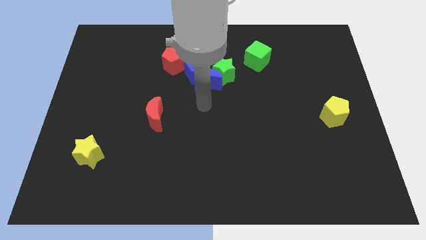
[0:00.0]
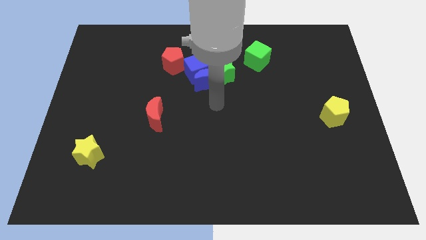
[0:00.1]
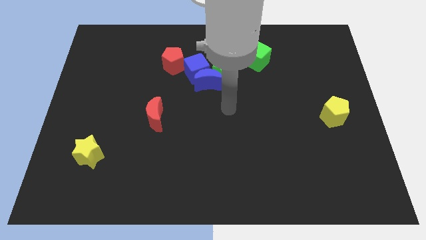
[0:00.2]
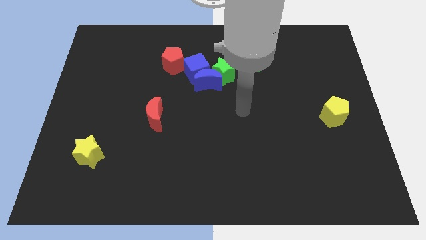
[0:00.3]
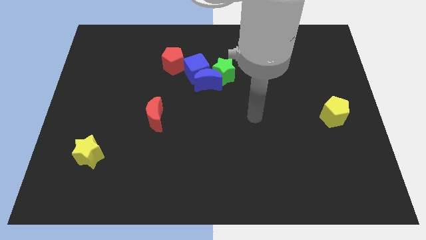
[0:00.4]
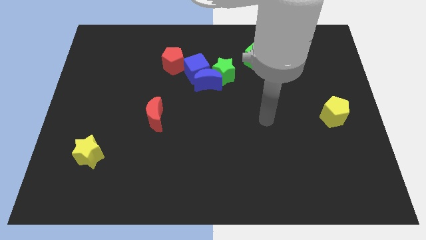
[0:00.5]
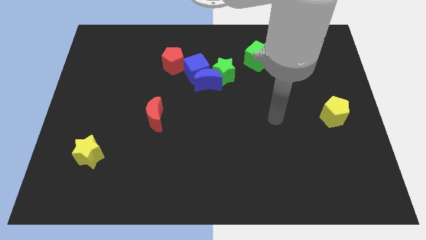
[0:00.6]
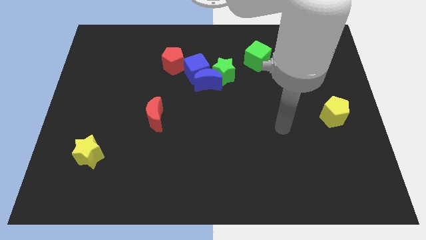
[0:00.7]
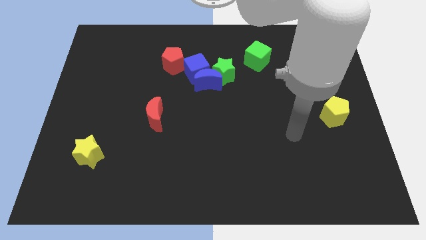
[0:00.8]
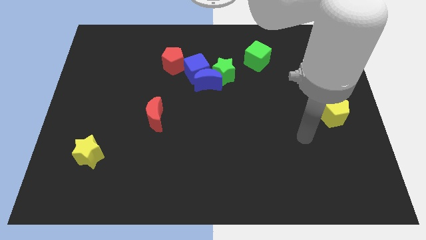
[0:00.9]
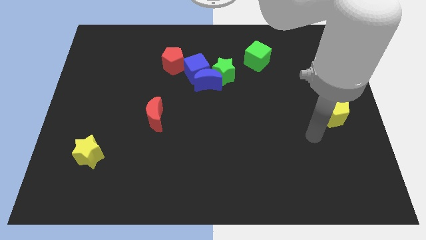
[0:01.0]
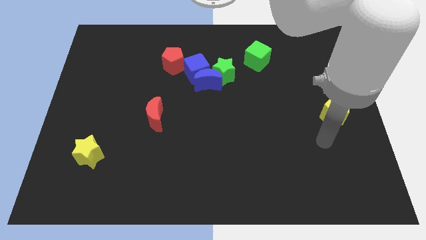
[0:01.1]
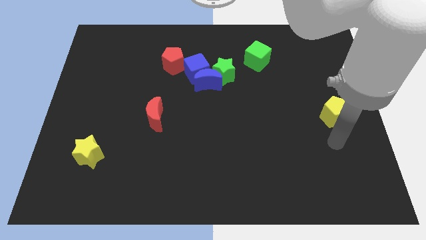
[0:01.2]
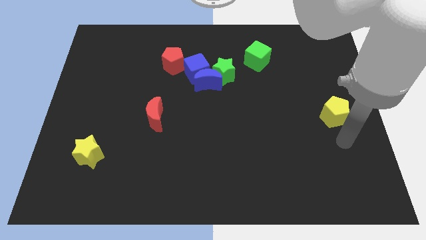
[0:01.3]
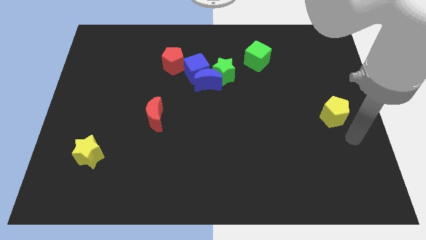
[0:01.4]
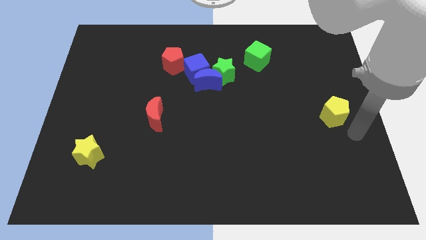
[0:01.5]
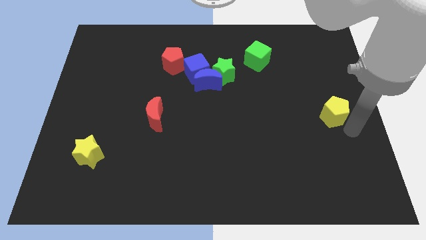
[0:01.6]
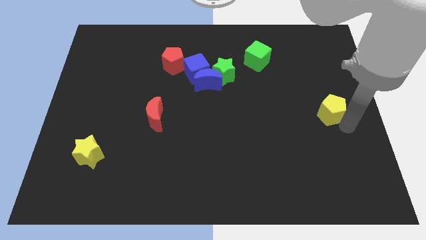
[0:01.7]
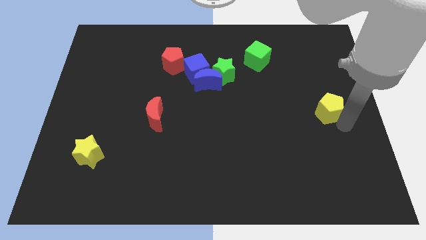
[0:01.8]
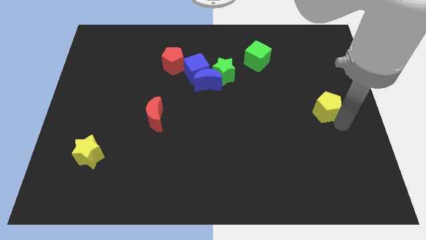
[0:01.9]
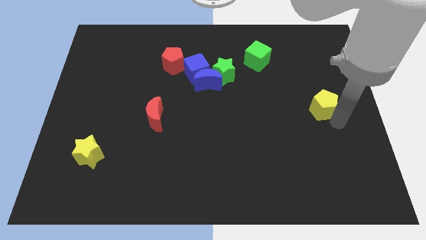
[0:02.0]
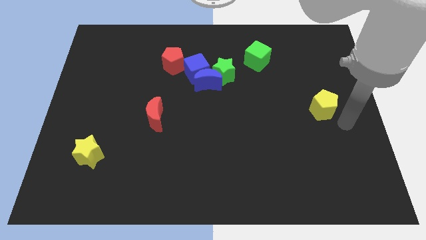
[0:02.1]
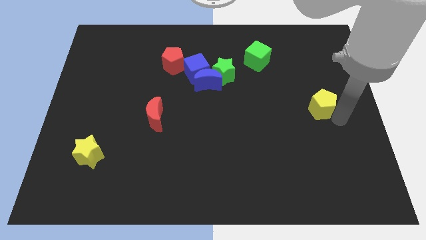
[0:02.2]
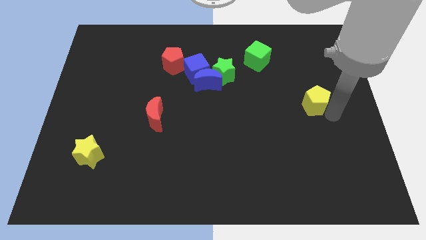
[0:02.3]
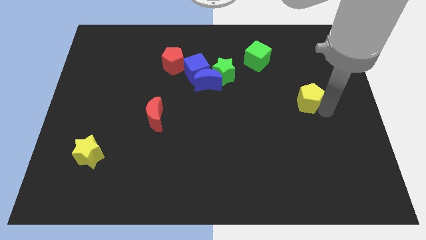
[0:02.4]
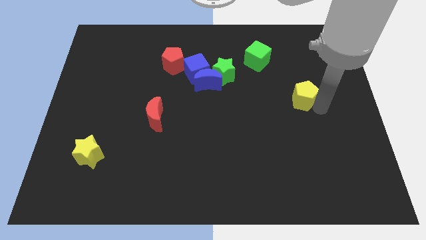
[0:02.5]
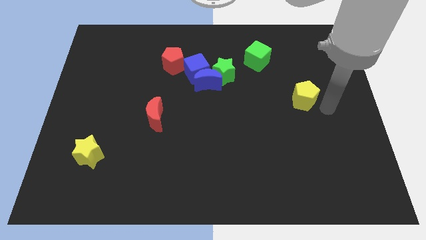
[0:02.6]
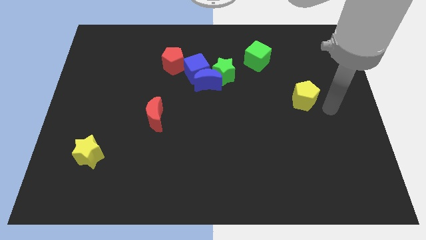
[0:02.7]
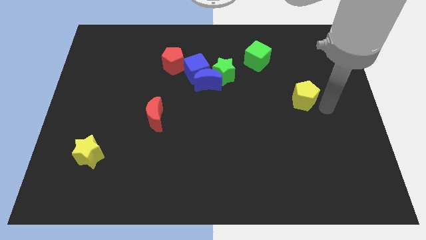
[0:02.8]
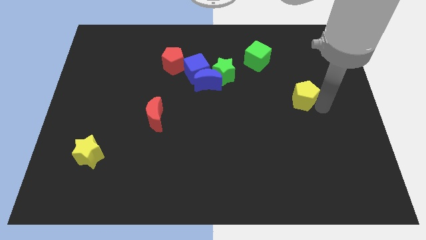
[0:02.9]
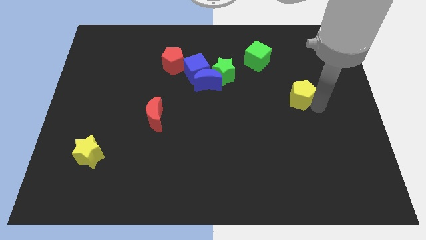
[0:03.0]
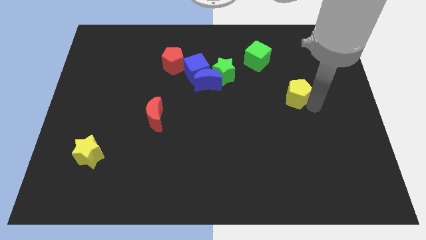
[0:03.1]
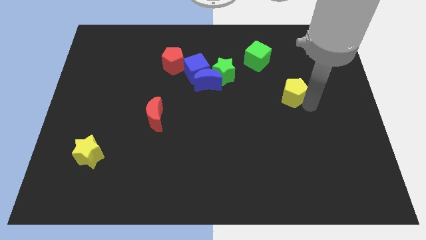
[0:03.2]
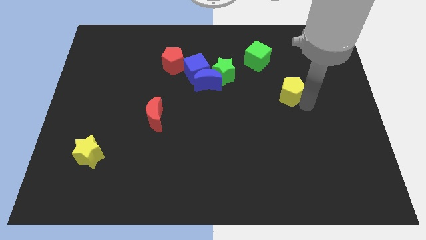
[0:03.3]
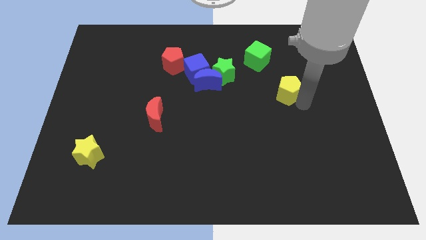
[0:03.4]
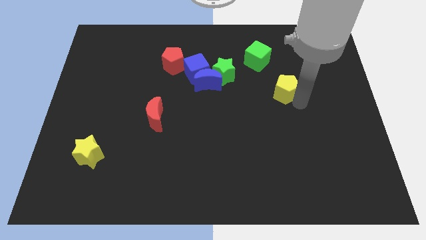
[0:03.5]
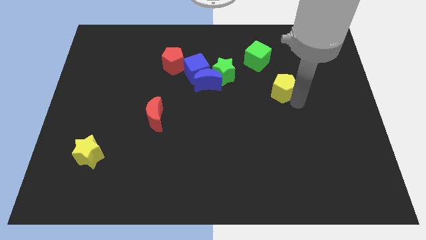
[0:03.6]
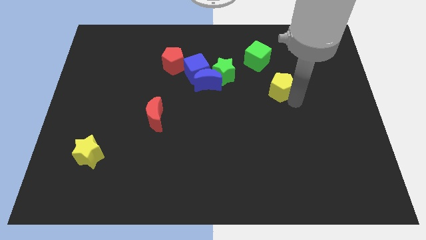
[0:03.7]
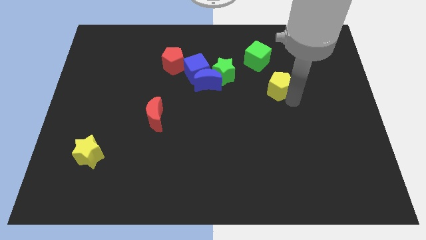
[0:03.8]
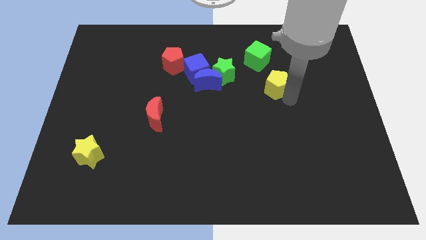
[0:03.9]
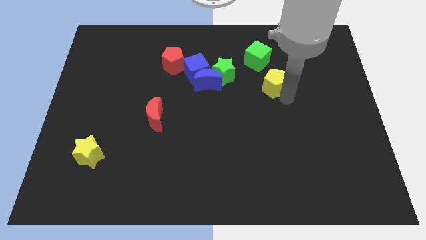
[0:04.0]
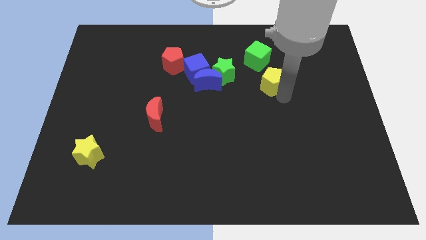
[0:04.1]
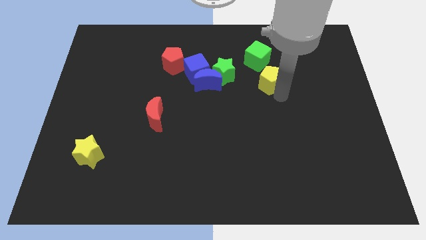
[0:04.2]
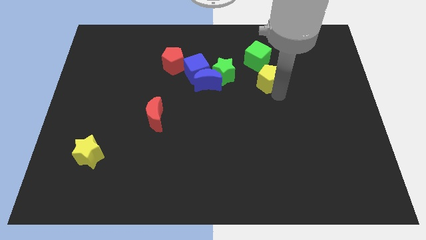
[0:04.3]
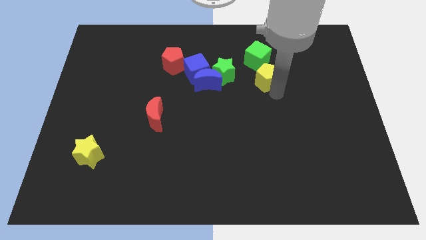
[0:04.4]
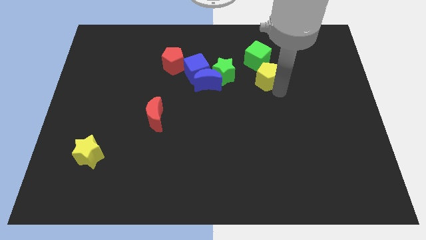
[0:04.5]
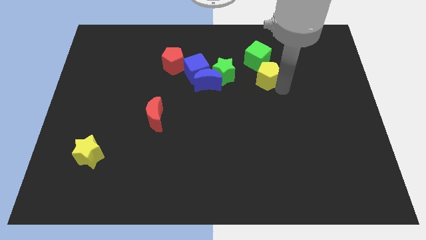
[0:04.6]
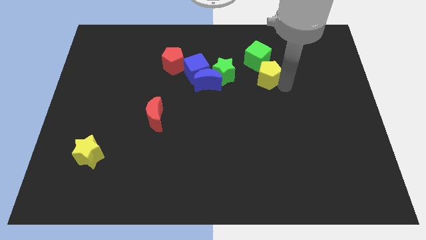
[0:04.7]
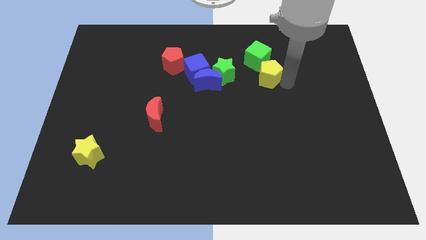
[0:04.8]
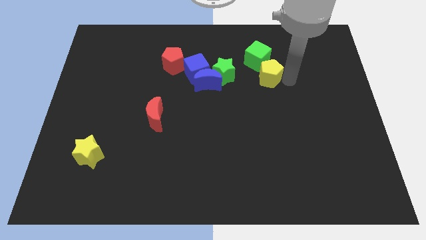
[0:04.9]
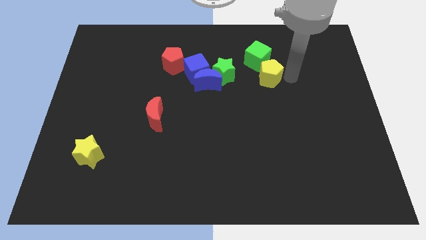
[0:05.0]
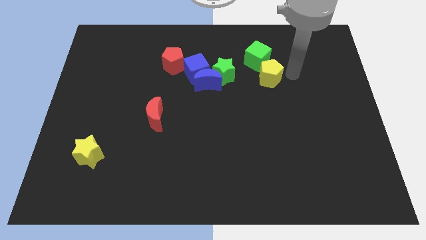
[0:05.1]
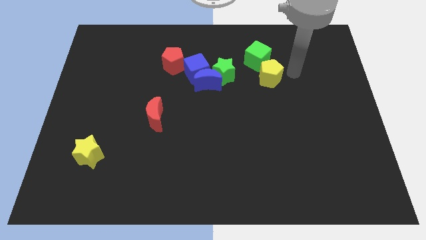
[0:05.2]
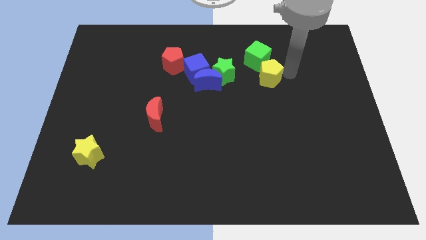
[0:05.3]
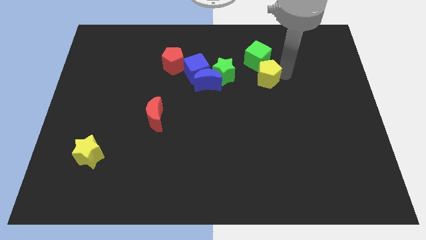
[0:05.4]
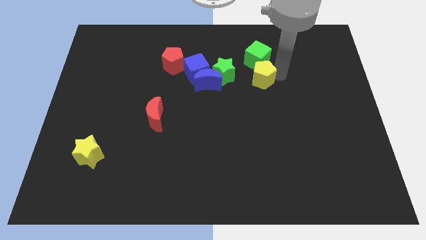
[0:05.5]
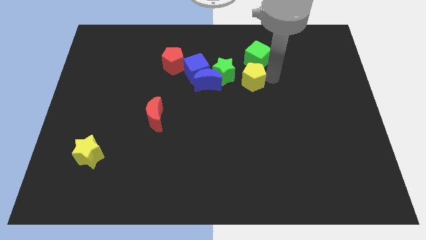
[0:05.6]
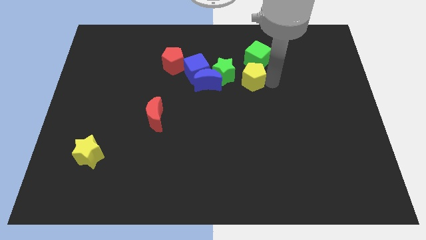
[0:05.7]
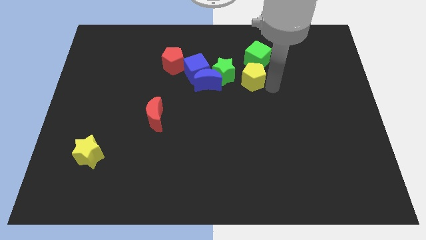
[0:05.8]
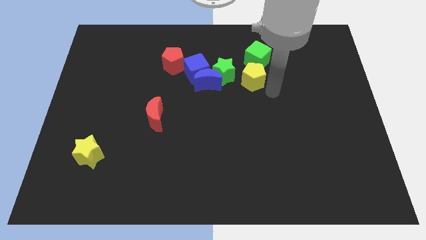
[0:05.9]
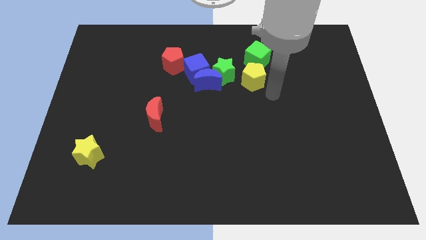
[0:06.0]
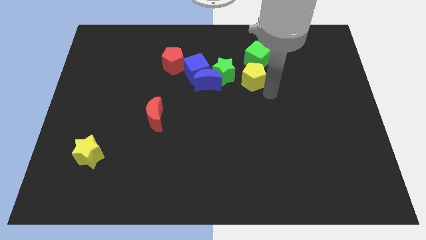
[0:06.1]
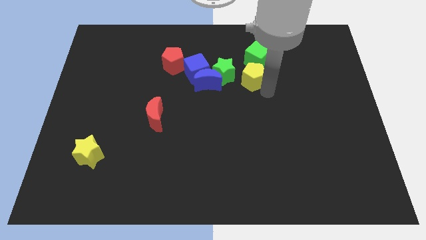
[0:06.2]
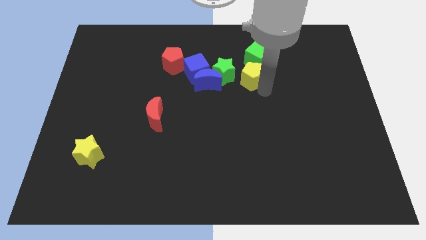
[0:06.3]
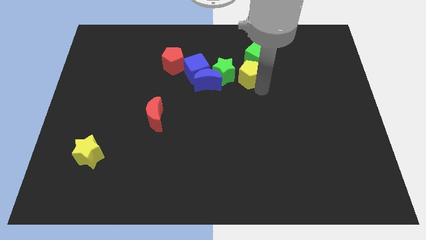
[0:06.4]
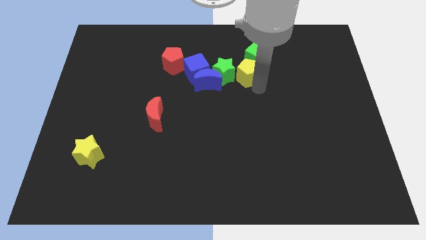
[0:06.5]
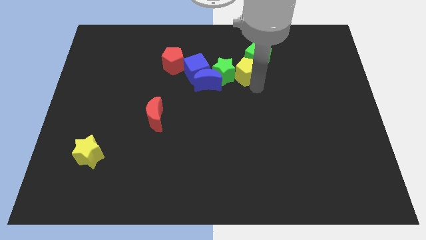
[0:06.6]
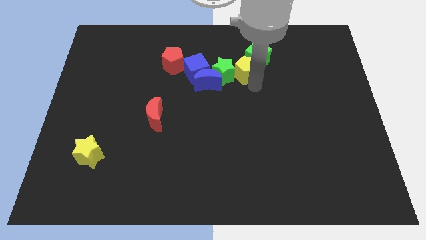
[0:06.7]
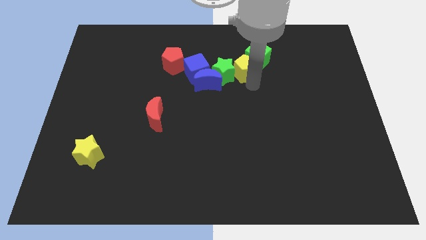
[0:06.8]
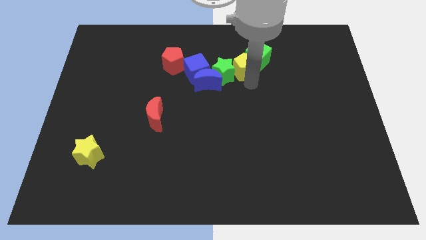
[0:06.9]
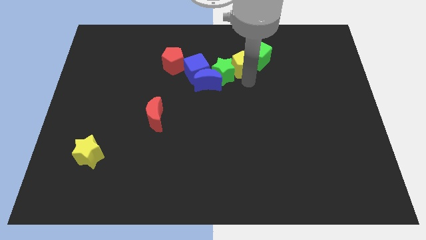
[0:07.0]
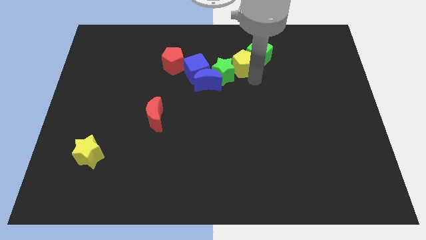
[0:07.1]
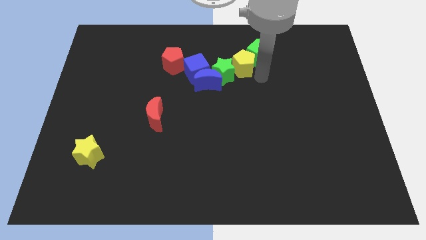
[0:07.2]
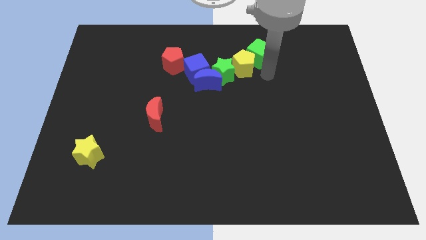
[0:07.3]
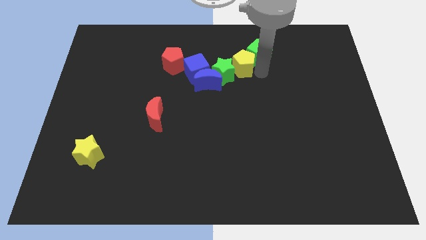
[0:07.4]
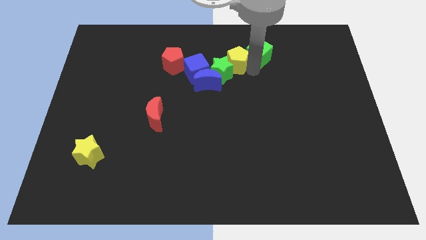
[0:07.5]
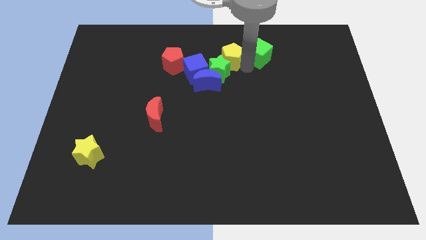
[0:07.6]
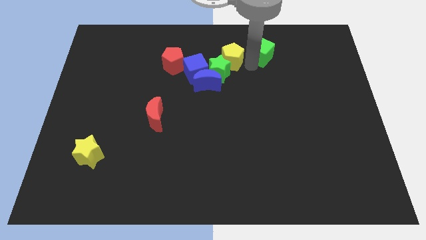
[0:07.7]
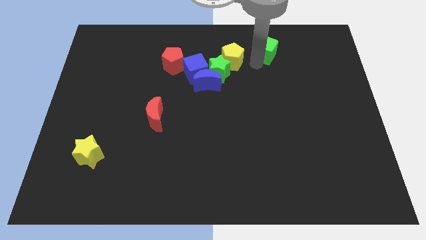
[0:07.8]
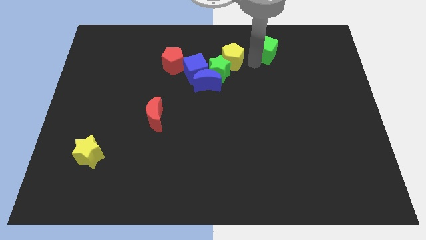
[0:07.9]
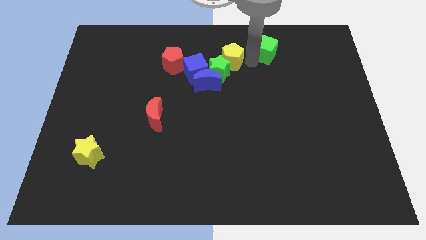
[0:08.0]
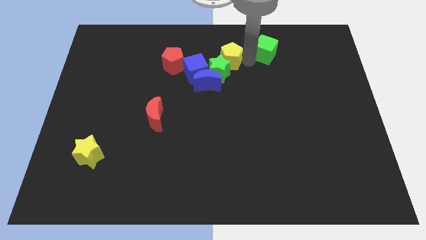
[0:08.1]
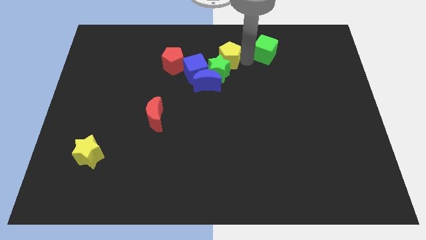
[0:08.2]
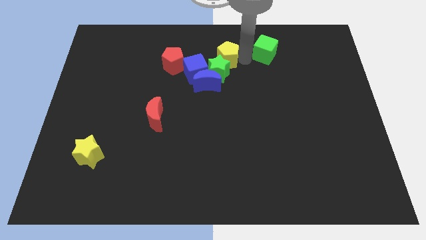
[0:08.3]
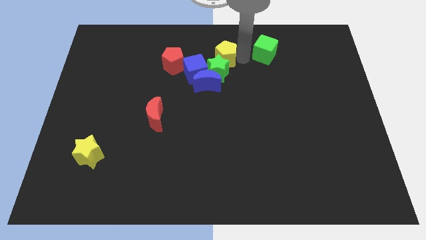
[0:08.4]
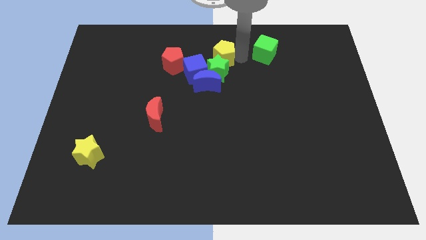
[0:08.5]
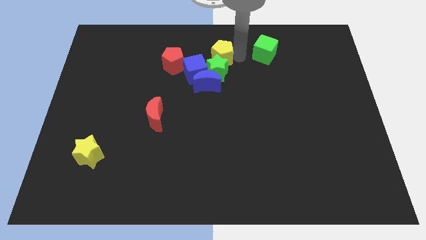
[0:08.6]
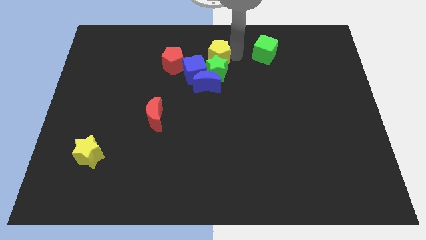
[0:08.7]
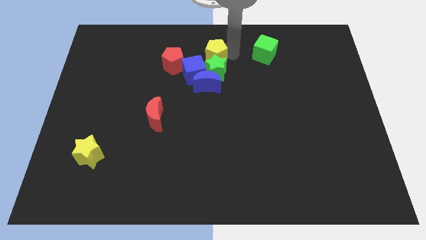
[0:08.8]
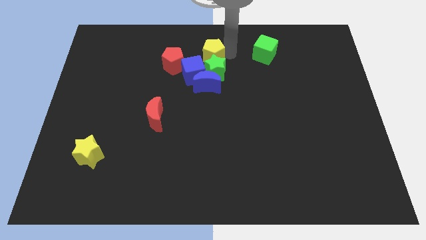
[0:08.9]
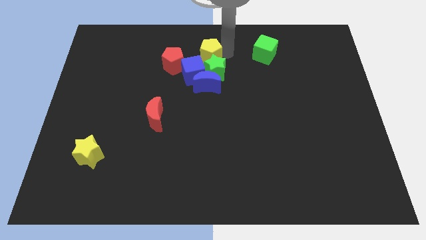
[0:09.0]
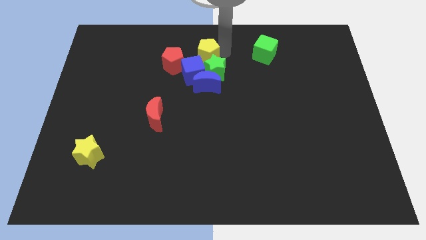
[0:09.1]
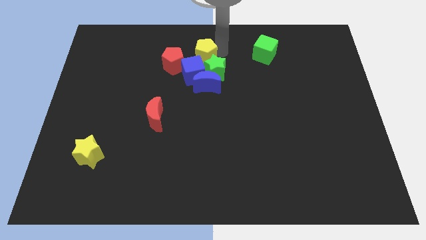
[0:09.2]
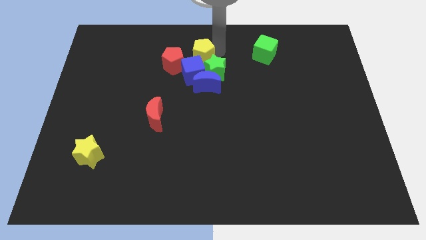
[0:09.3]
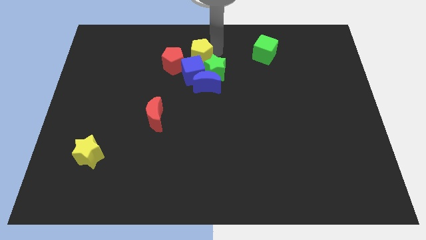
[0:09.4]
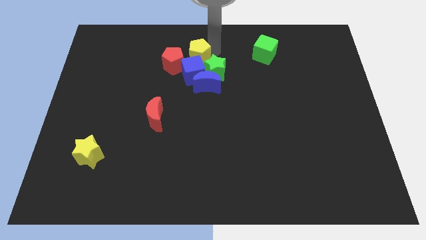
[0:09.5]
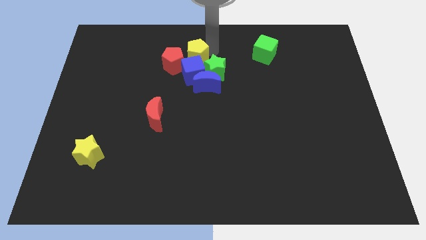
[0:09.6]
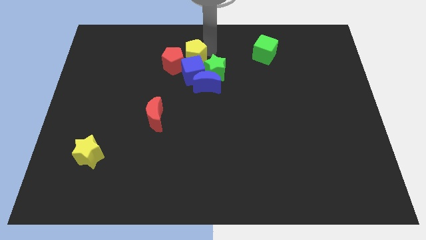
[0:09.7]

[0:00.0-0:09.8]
slide the yellow pentagon next to the red pentagon
